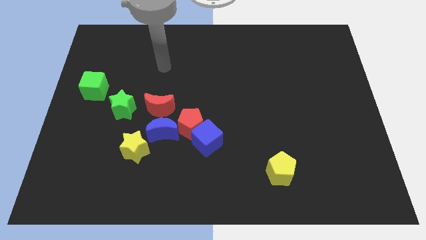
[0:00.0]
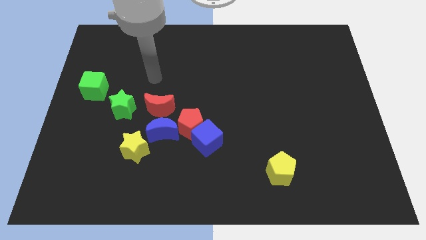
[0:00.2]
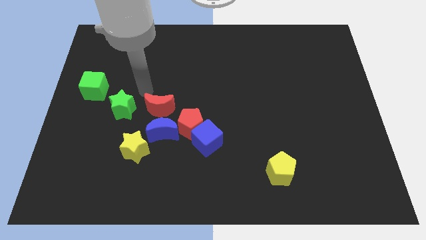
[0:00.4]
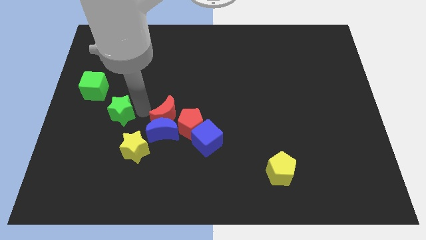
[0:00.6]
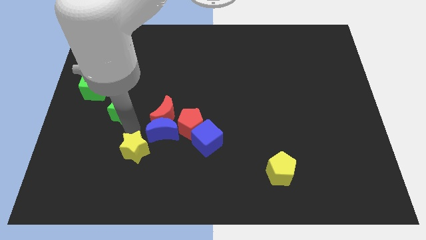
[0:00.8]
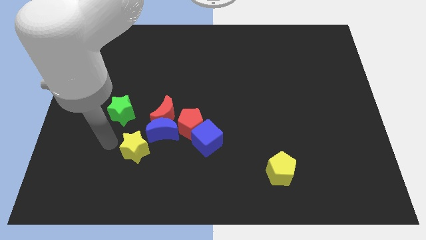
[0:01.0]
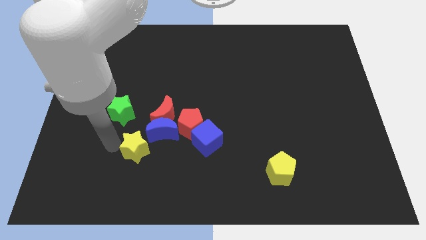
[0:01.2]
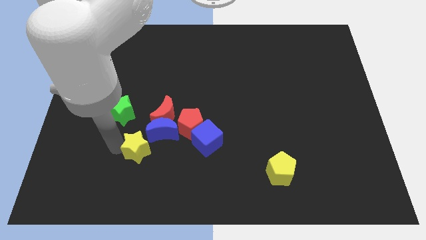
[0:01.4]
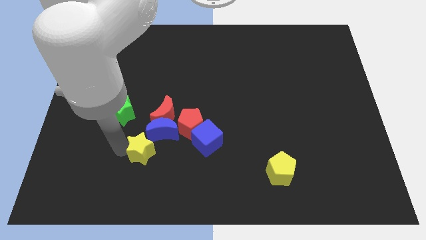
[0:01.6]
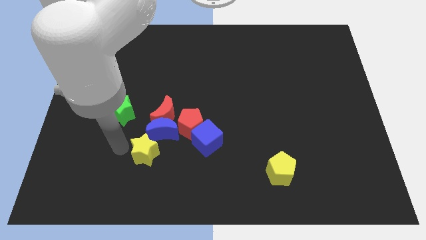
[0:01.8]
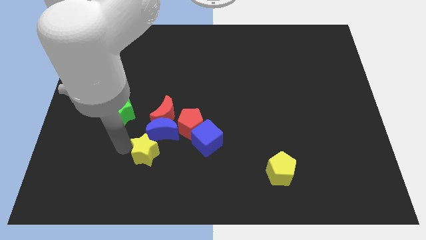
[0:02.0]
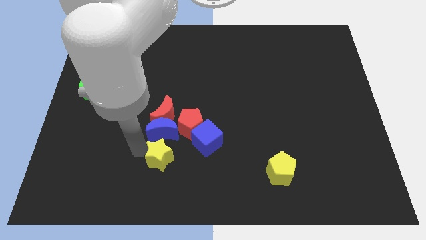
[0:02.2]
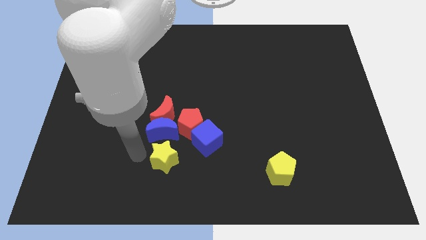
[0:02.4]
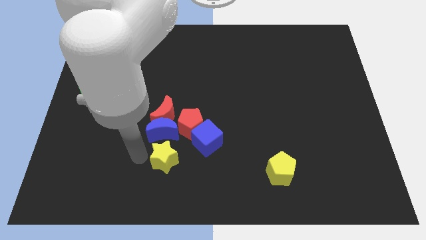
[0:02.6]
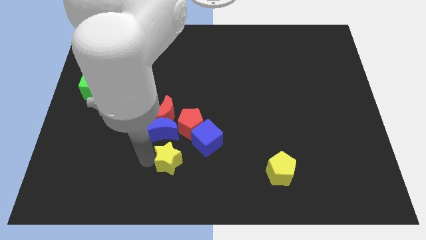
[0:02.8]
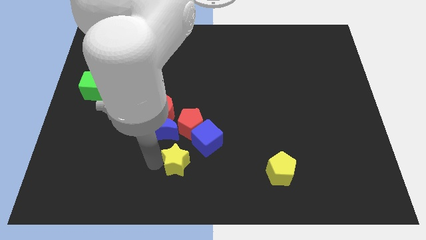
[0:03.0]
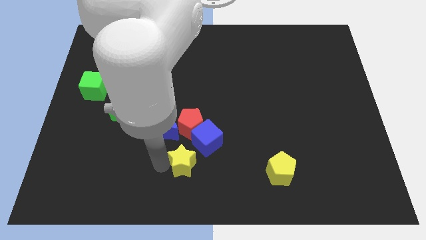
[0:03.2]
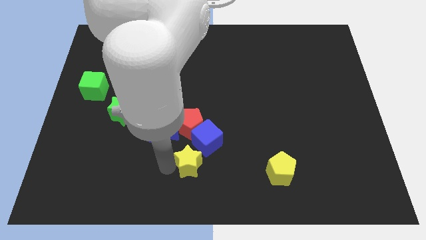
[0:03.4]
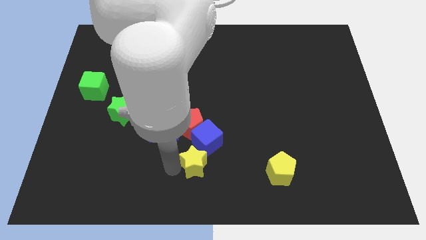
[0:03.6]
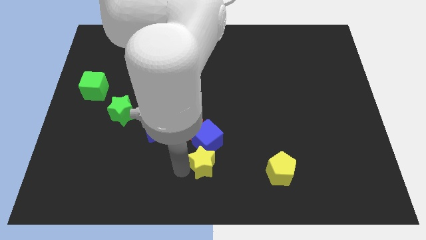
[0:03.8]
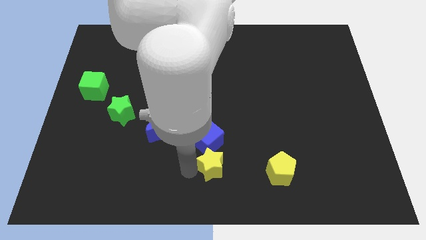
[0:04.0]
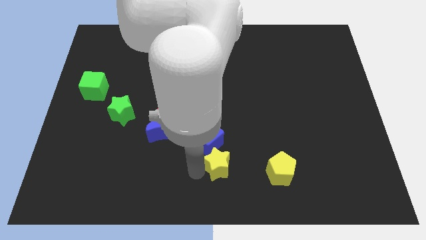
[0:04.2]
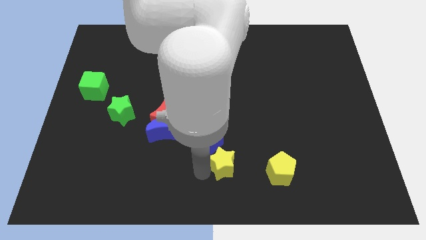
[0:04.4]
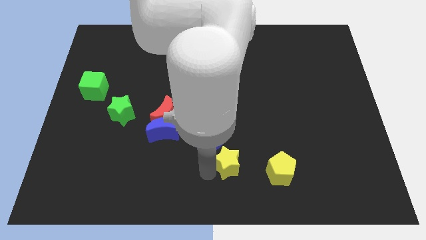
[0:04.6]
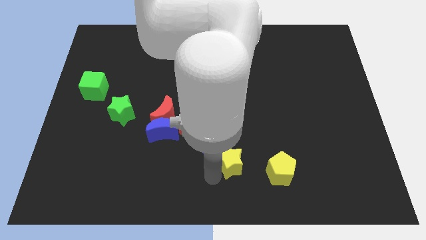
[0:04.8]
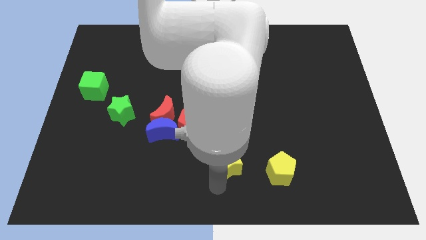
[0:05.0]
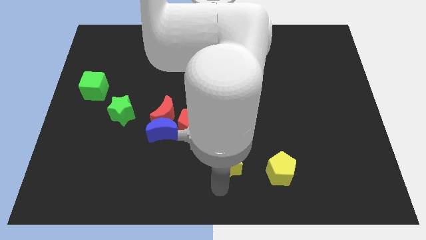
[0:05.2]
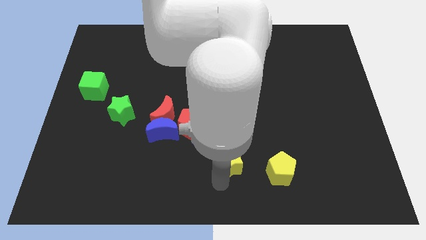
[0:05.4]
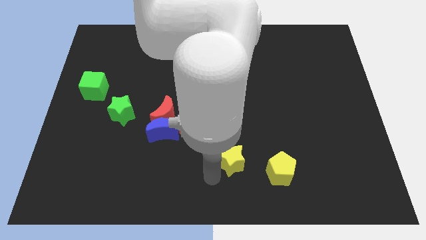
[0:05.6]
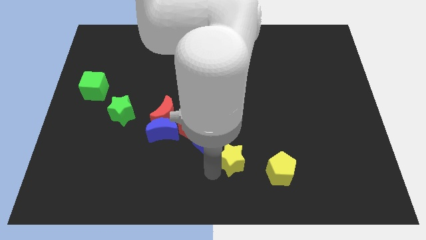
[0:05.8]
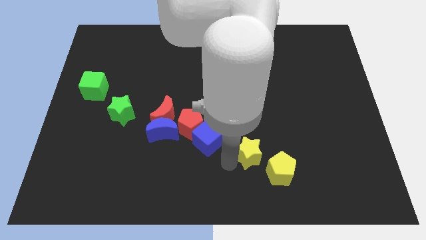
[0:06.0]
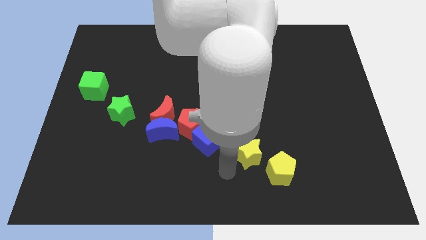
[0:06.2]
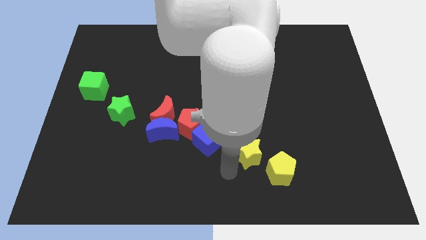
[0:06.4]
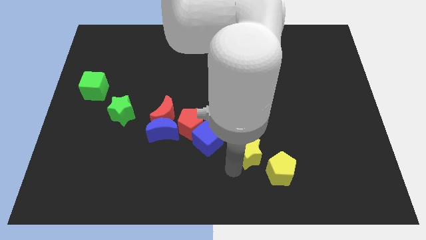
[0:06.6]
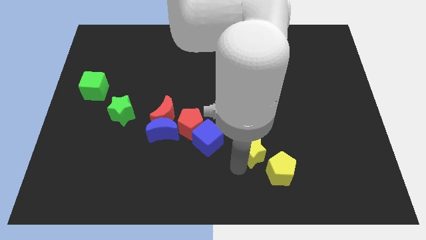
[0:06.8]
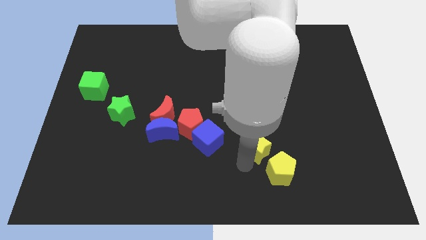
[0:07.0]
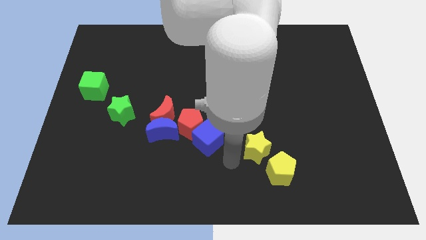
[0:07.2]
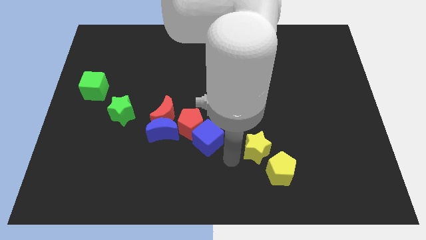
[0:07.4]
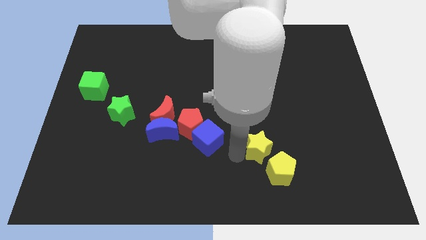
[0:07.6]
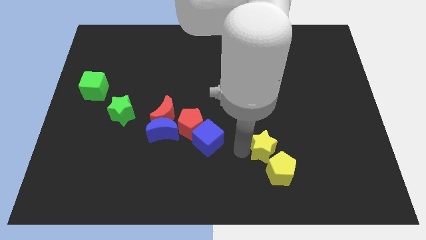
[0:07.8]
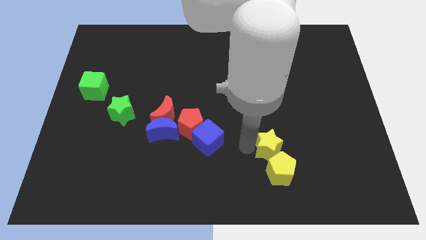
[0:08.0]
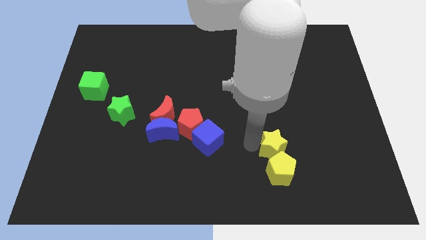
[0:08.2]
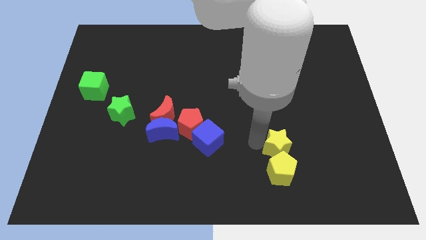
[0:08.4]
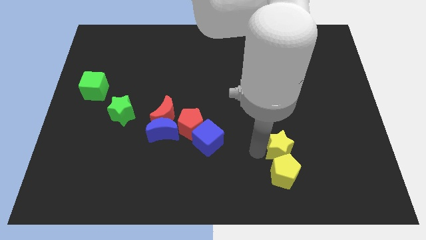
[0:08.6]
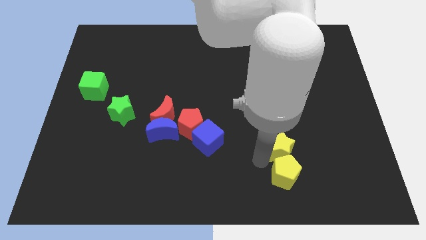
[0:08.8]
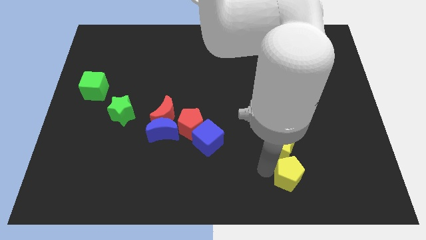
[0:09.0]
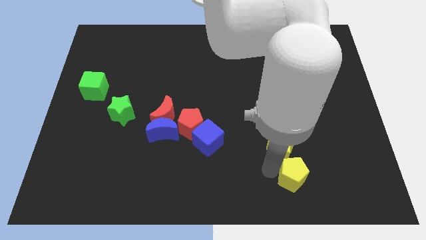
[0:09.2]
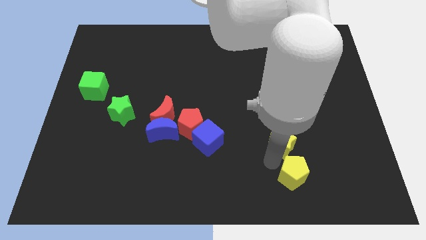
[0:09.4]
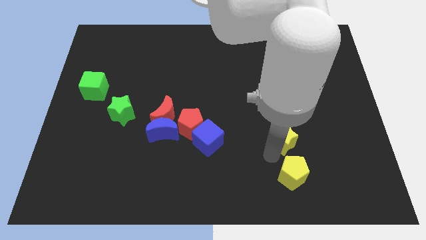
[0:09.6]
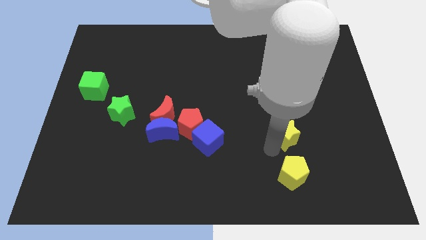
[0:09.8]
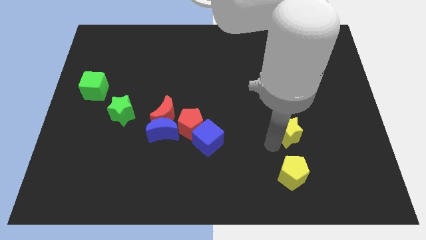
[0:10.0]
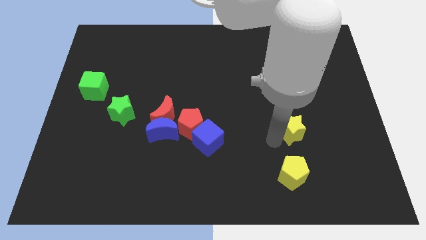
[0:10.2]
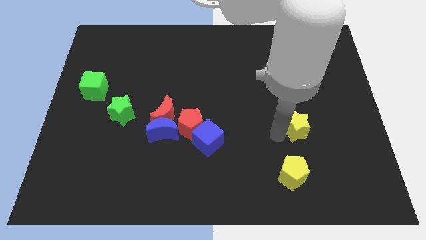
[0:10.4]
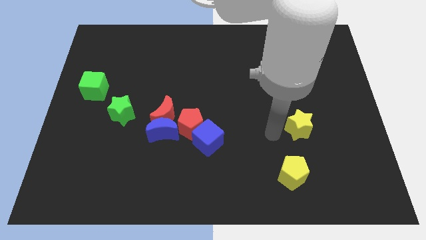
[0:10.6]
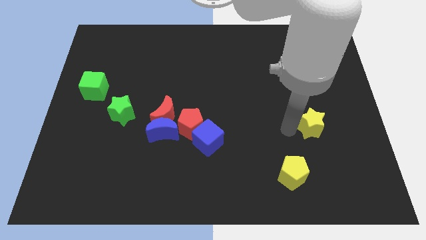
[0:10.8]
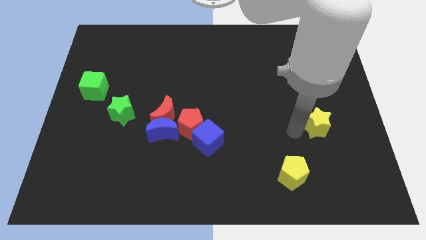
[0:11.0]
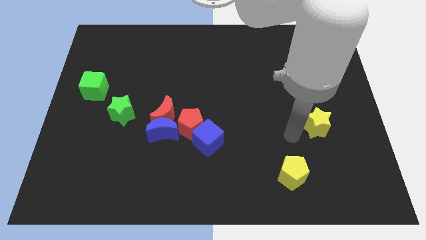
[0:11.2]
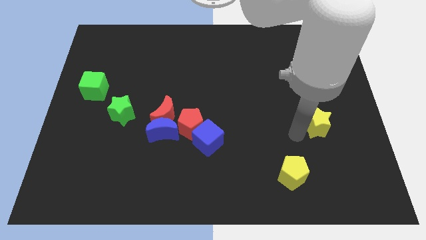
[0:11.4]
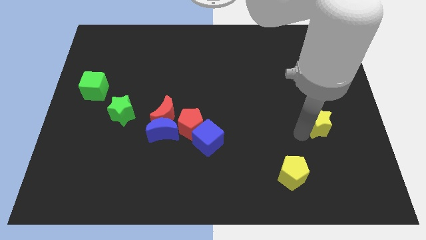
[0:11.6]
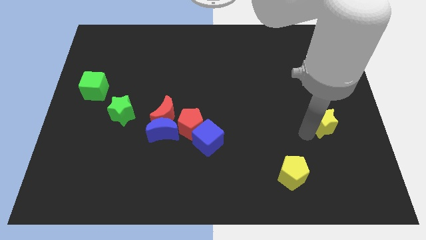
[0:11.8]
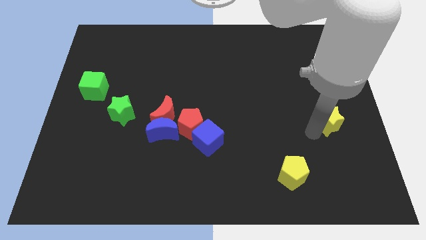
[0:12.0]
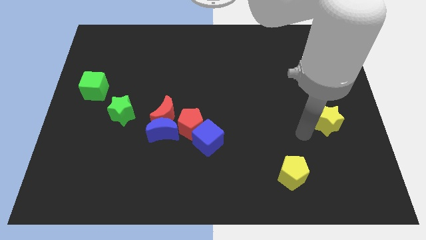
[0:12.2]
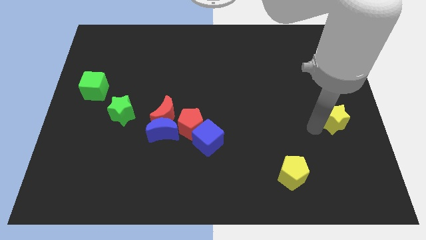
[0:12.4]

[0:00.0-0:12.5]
move the yellow star to the center right
